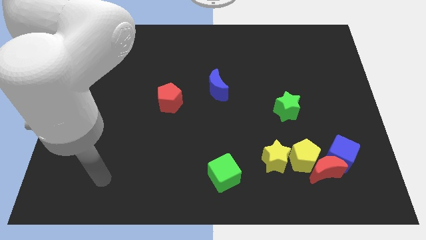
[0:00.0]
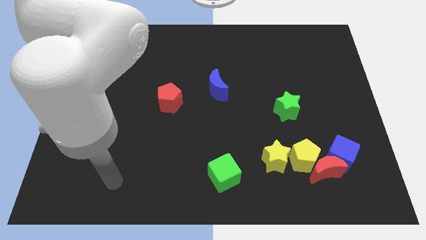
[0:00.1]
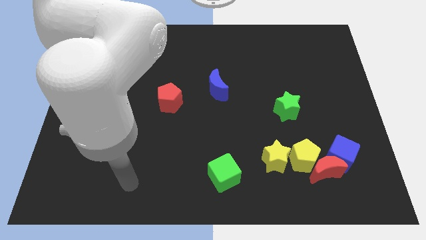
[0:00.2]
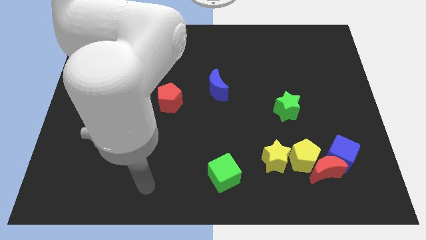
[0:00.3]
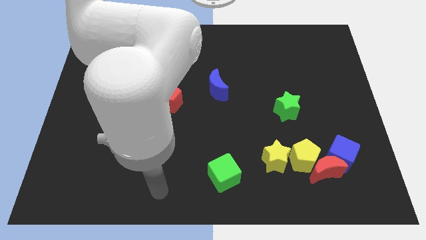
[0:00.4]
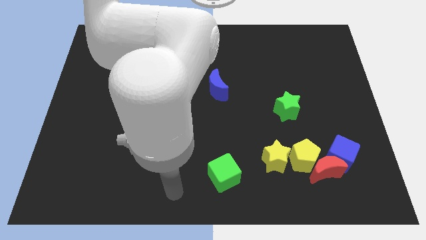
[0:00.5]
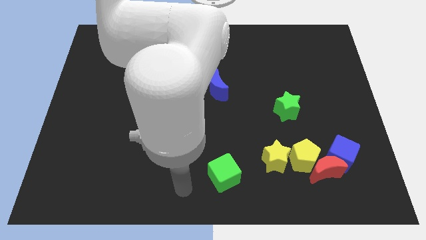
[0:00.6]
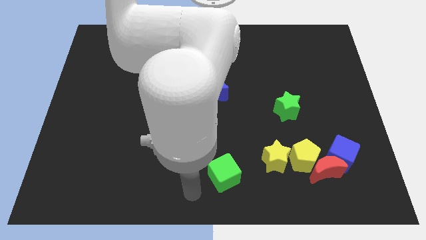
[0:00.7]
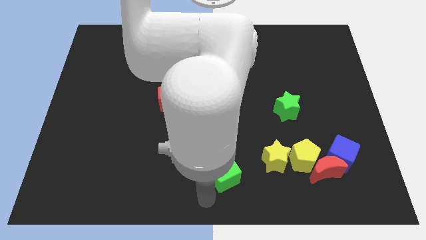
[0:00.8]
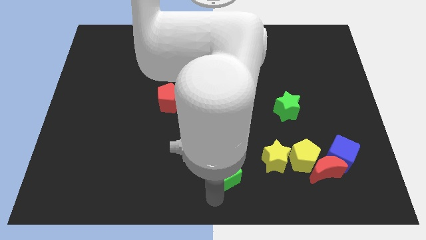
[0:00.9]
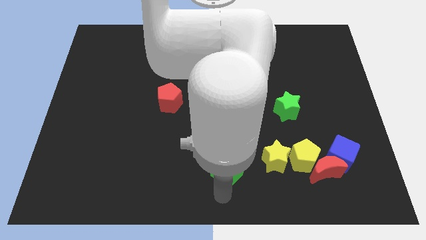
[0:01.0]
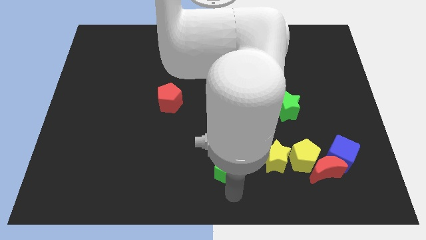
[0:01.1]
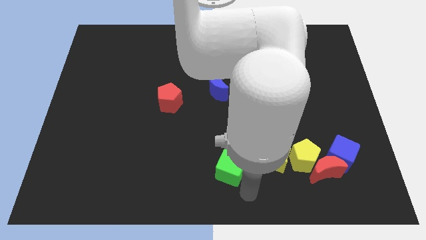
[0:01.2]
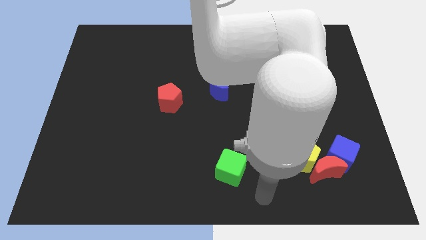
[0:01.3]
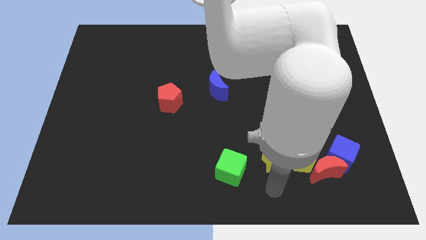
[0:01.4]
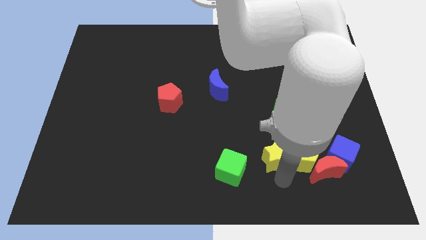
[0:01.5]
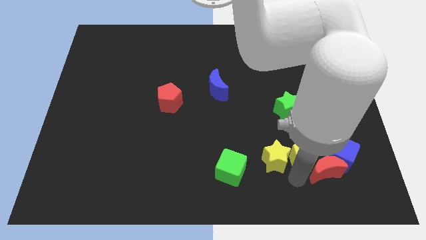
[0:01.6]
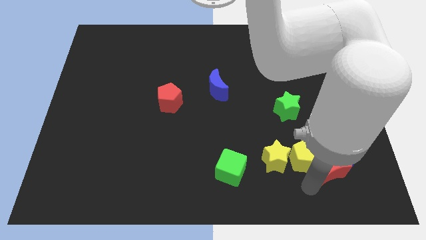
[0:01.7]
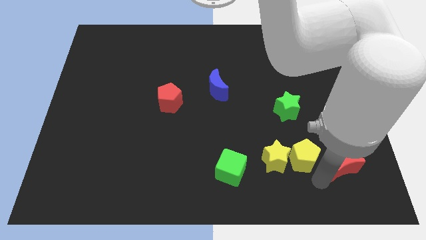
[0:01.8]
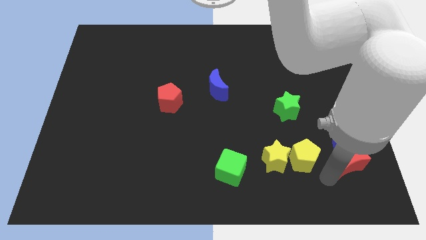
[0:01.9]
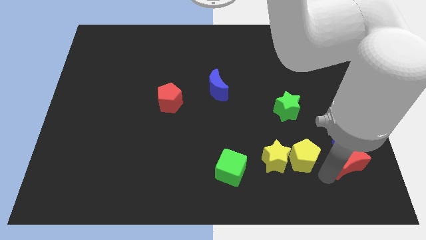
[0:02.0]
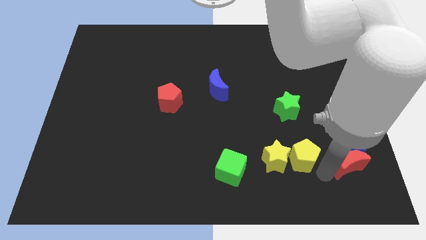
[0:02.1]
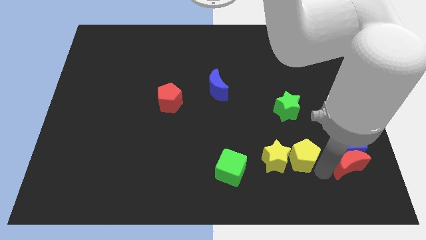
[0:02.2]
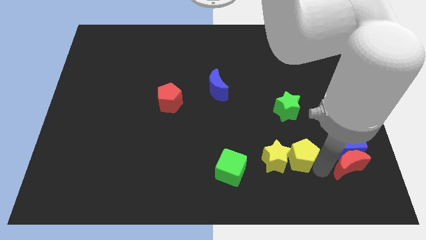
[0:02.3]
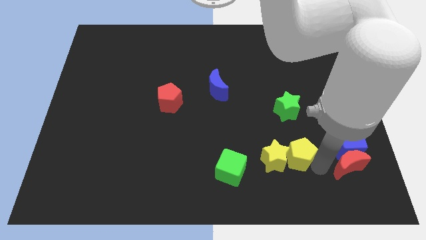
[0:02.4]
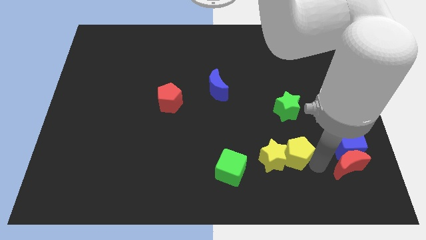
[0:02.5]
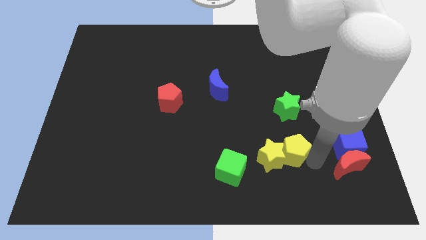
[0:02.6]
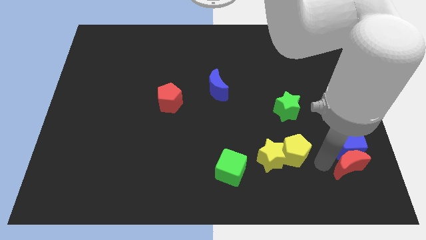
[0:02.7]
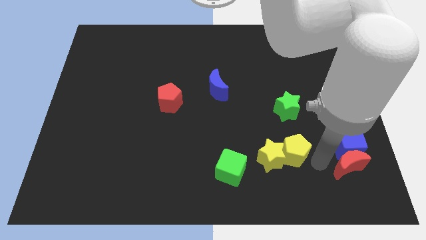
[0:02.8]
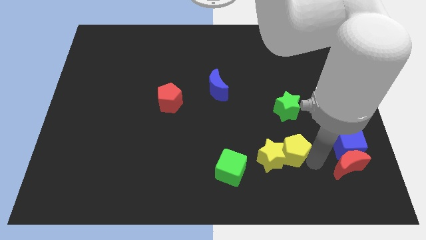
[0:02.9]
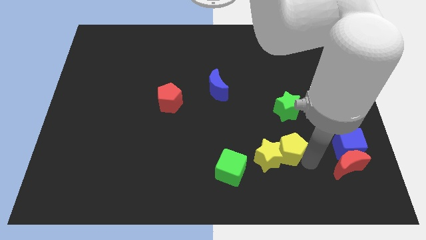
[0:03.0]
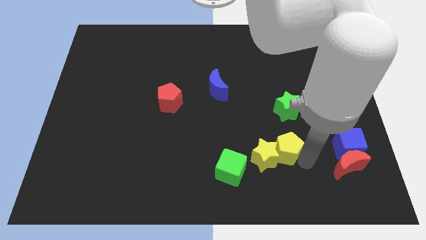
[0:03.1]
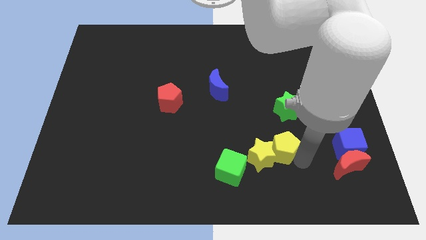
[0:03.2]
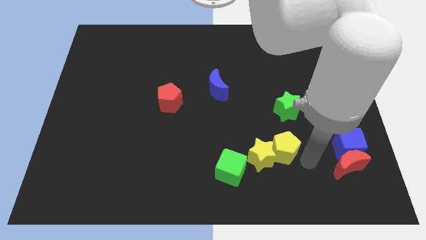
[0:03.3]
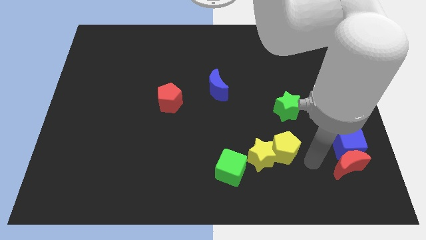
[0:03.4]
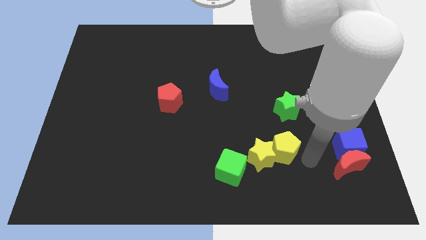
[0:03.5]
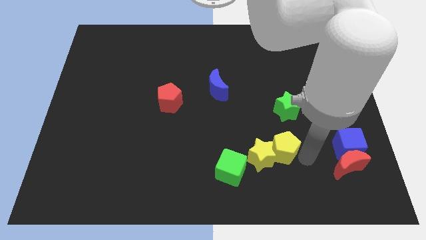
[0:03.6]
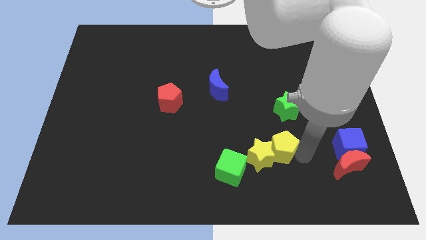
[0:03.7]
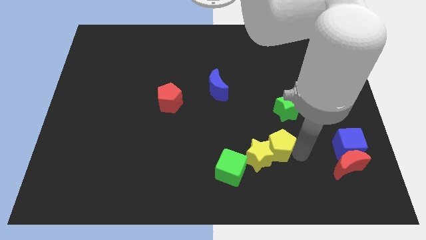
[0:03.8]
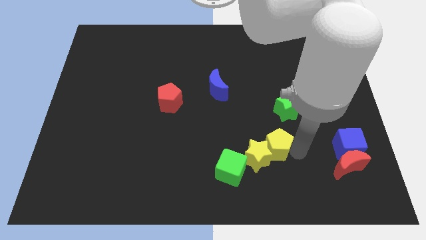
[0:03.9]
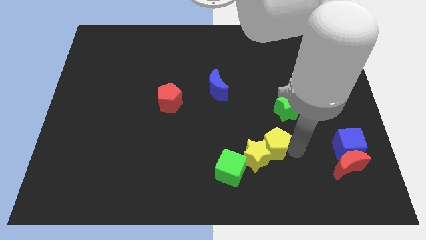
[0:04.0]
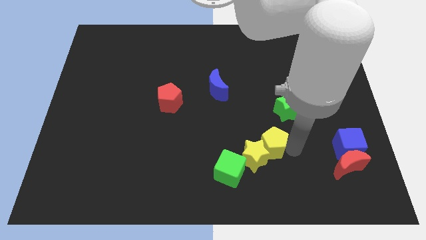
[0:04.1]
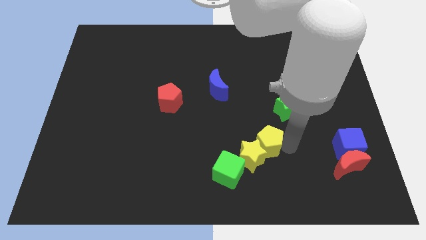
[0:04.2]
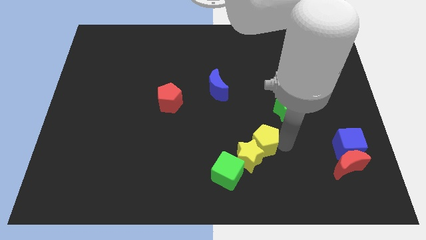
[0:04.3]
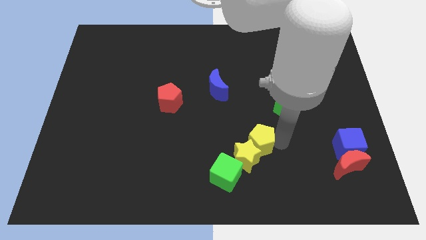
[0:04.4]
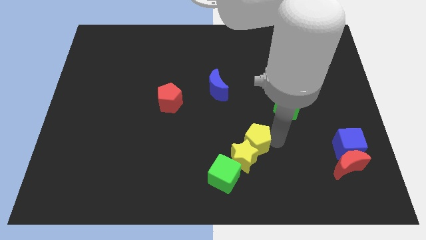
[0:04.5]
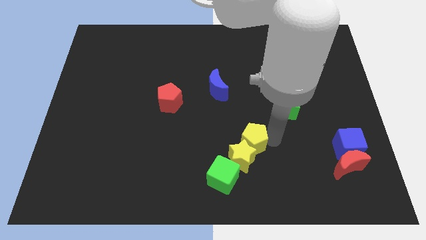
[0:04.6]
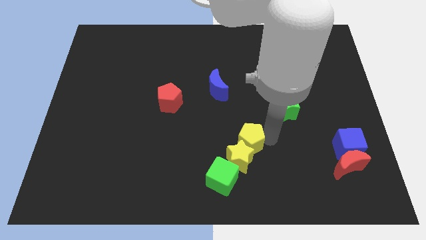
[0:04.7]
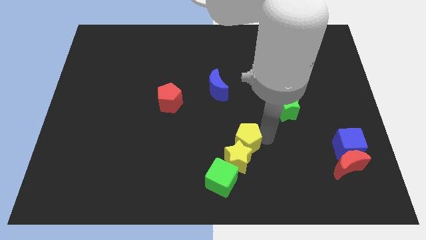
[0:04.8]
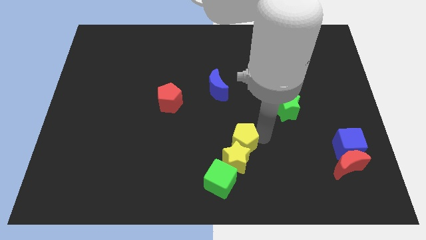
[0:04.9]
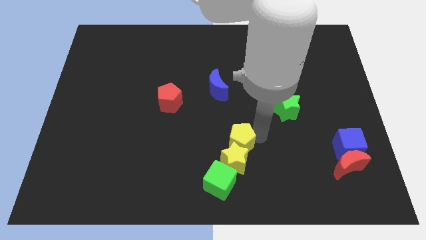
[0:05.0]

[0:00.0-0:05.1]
move the yellow pentagon to the top of the green cube

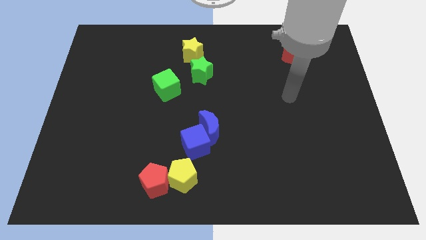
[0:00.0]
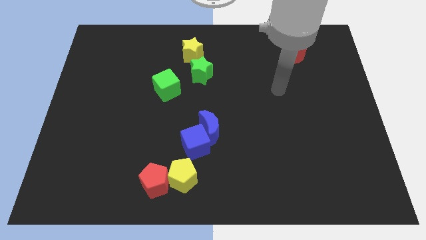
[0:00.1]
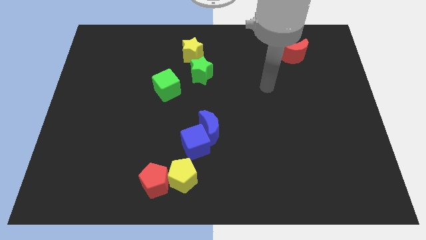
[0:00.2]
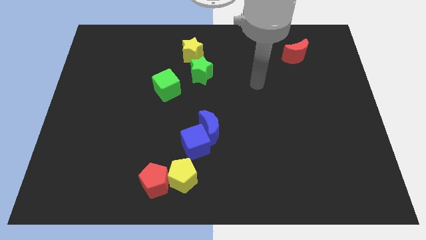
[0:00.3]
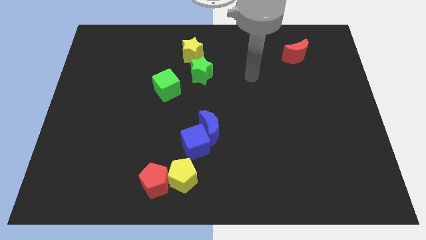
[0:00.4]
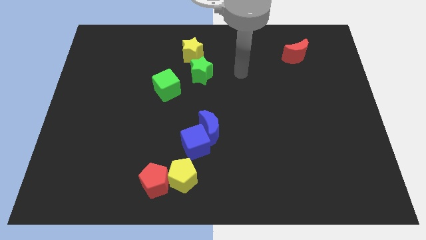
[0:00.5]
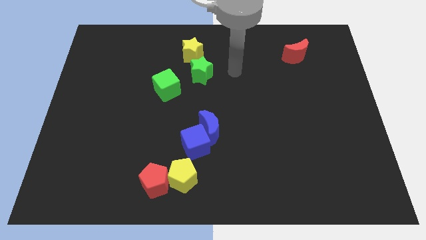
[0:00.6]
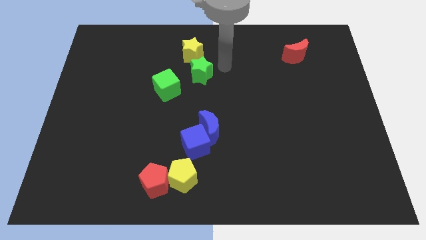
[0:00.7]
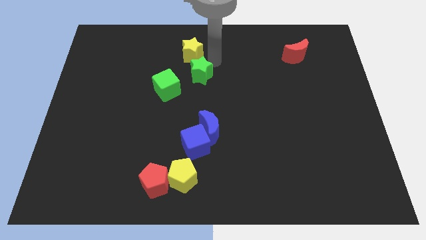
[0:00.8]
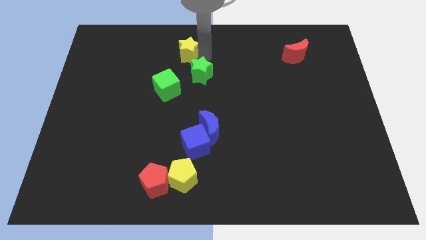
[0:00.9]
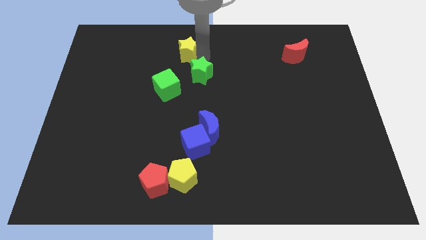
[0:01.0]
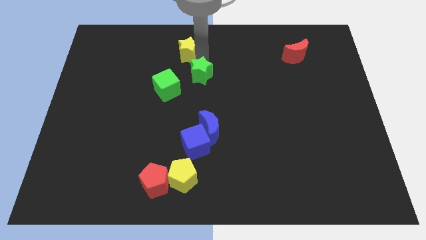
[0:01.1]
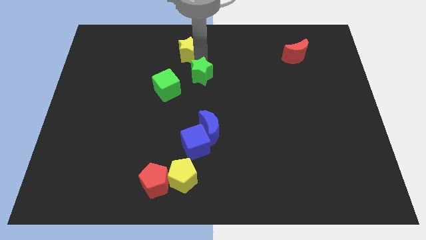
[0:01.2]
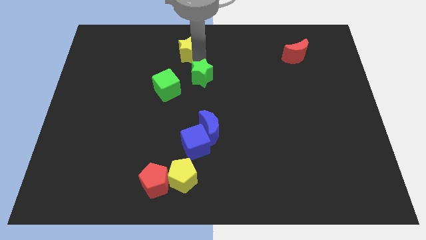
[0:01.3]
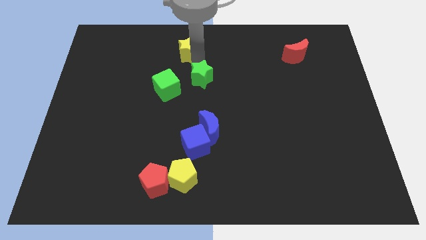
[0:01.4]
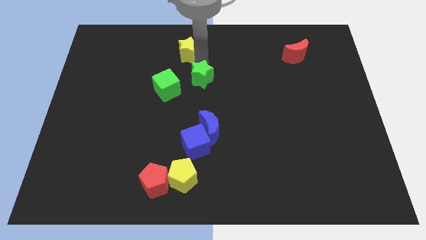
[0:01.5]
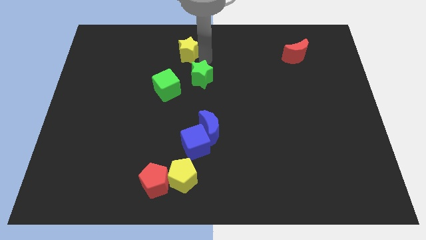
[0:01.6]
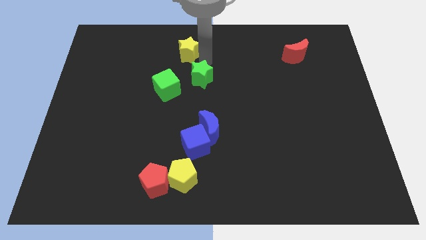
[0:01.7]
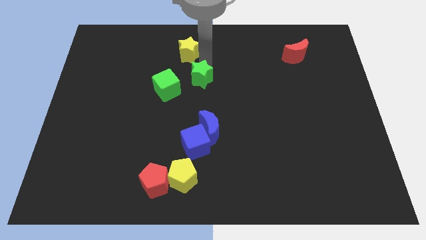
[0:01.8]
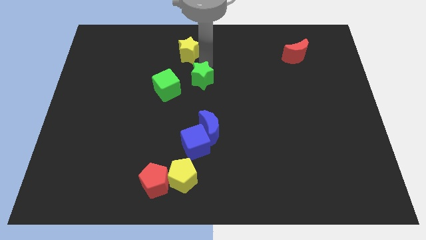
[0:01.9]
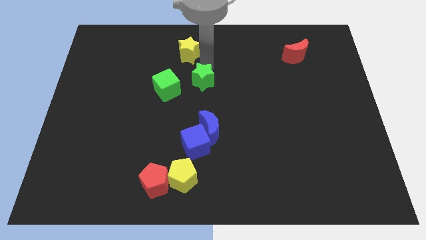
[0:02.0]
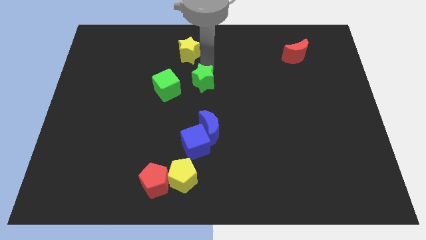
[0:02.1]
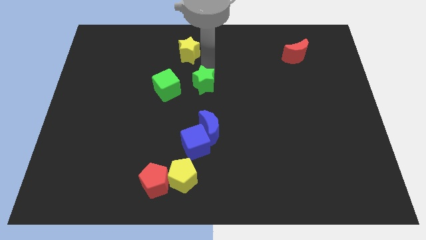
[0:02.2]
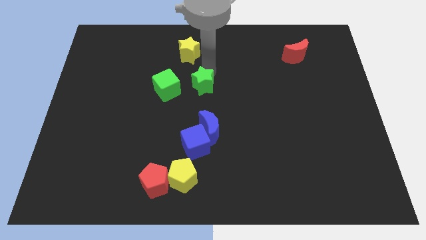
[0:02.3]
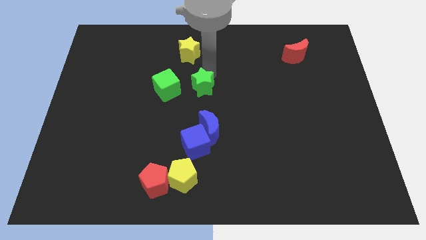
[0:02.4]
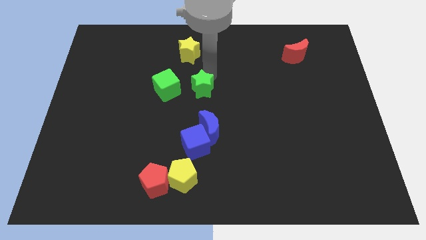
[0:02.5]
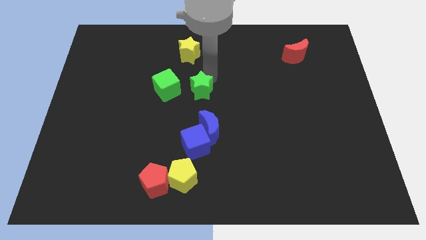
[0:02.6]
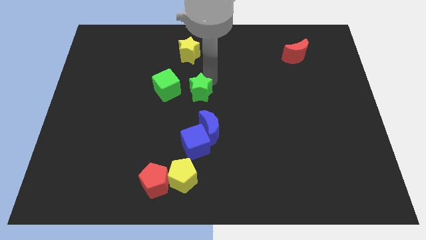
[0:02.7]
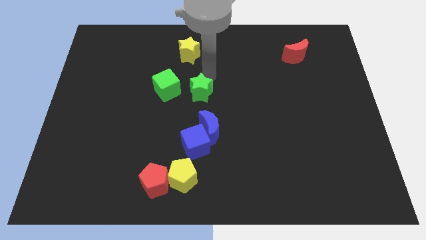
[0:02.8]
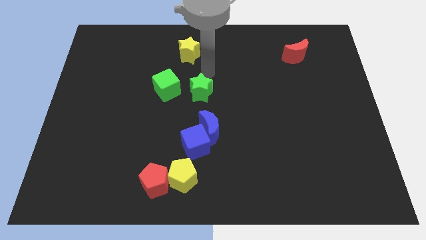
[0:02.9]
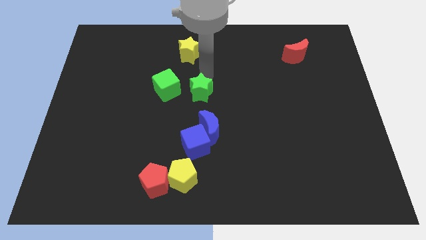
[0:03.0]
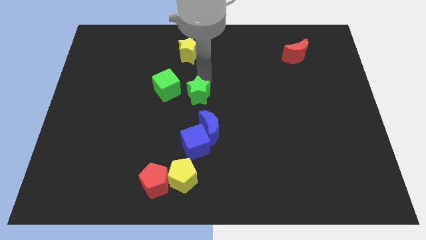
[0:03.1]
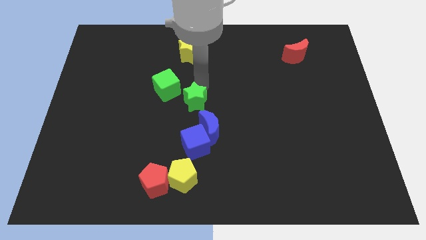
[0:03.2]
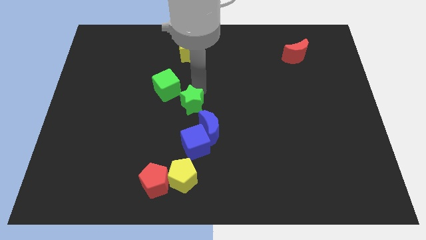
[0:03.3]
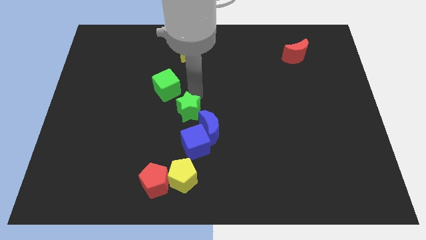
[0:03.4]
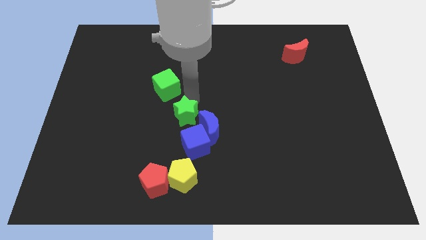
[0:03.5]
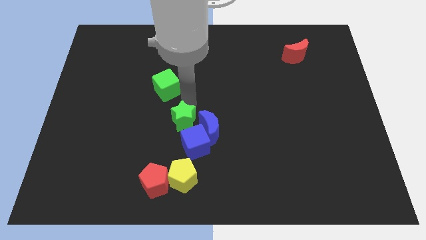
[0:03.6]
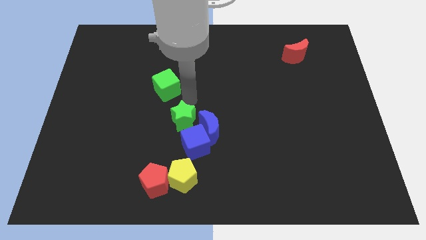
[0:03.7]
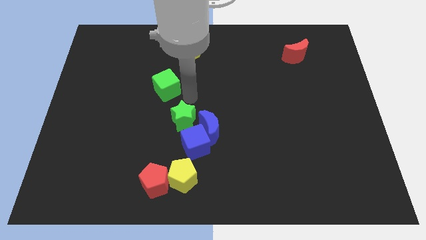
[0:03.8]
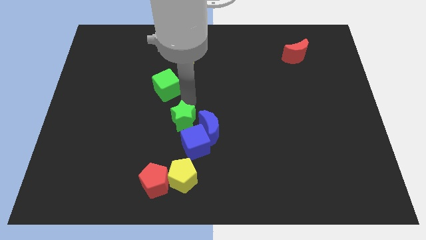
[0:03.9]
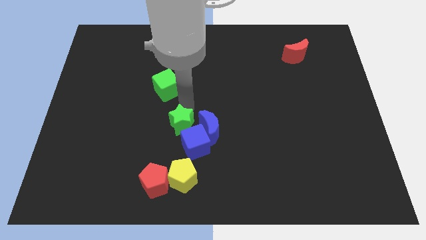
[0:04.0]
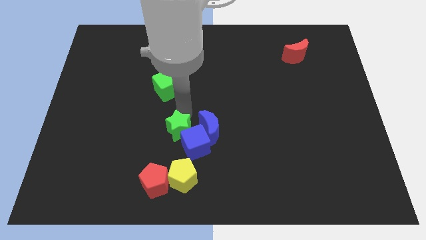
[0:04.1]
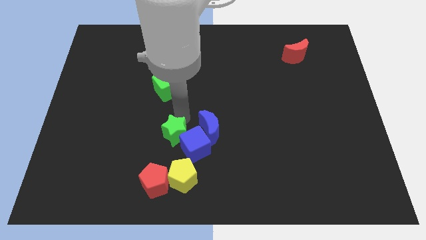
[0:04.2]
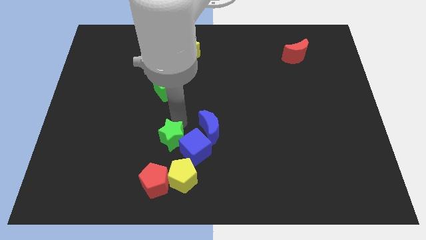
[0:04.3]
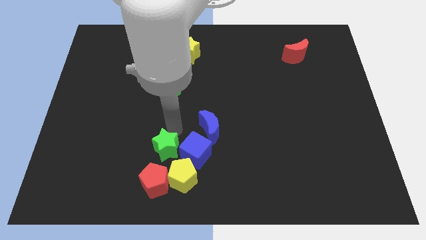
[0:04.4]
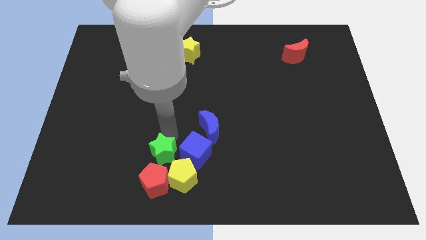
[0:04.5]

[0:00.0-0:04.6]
put the green star to the bottom left of the blue cube
